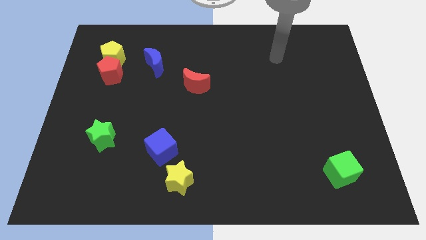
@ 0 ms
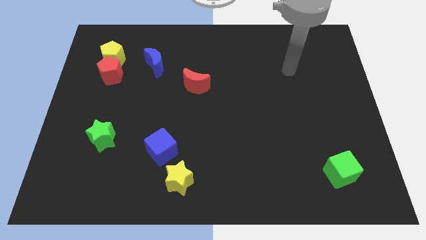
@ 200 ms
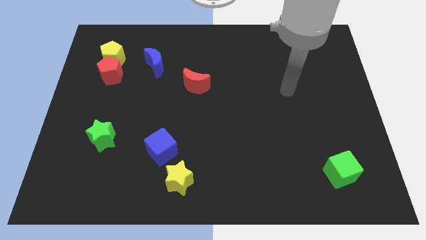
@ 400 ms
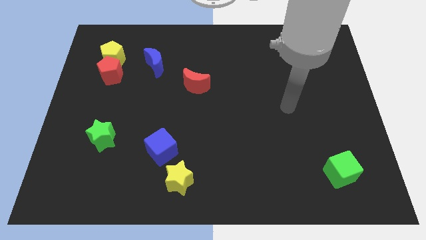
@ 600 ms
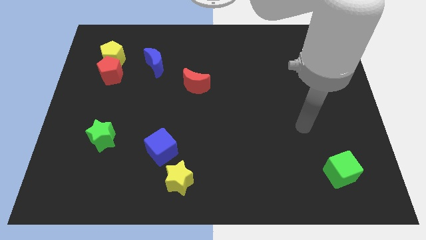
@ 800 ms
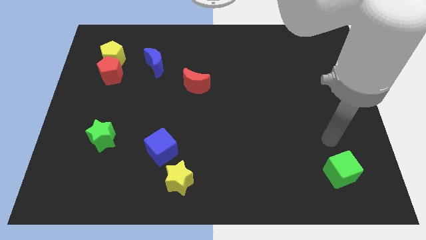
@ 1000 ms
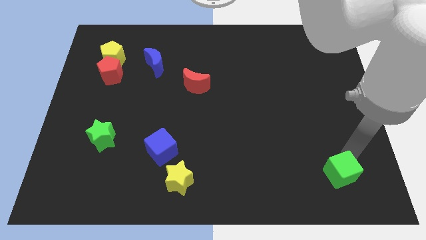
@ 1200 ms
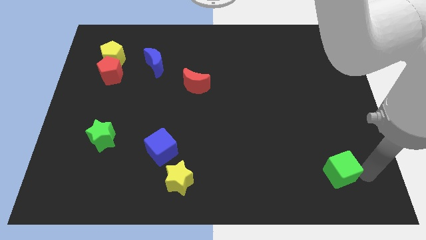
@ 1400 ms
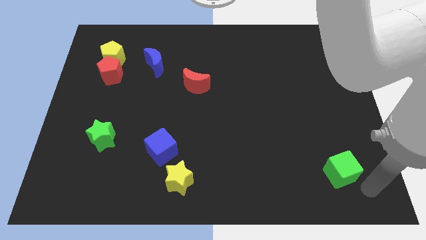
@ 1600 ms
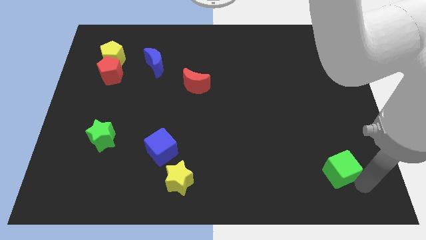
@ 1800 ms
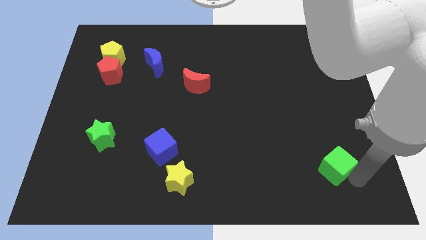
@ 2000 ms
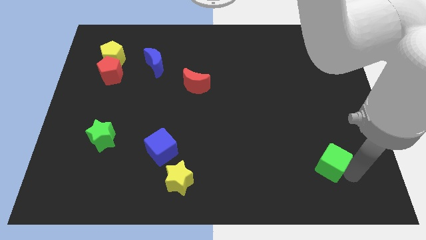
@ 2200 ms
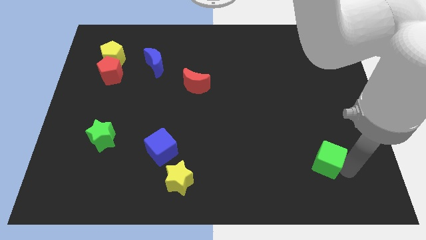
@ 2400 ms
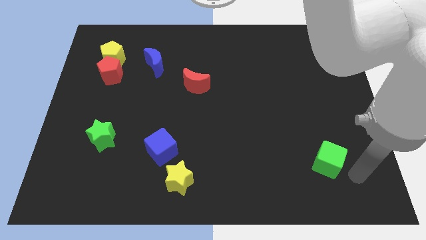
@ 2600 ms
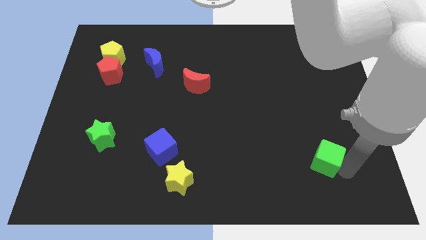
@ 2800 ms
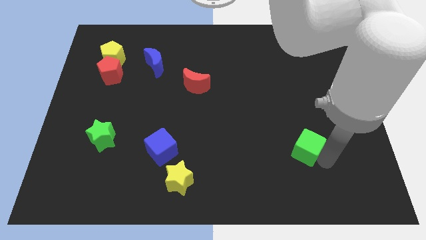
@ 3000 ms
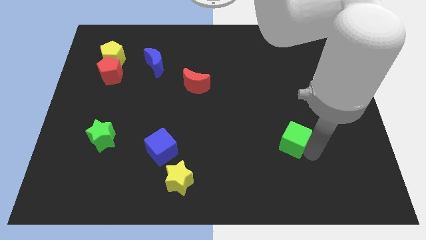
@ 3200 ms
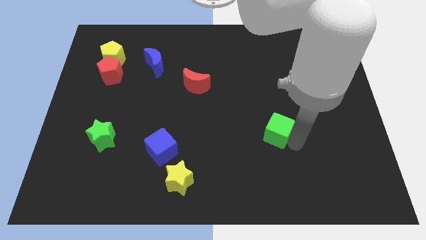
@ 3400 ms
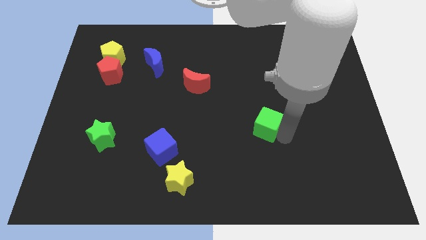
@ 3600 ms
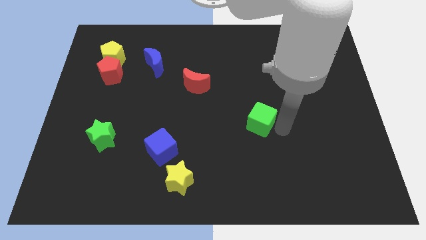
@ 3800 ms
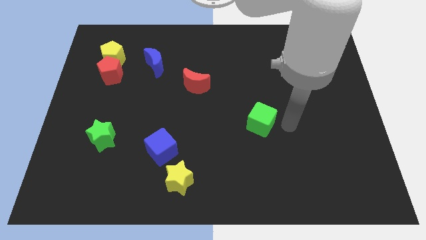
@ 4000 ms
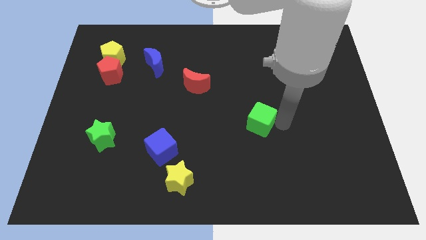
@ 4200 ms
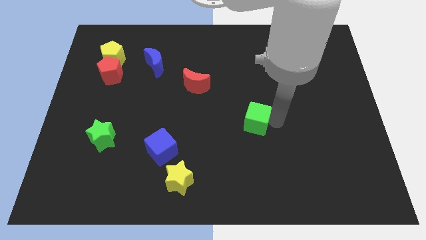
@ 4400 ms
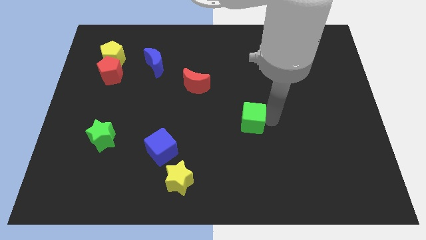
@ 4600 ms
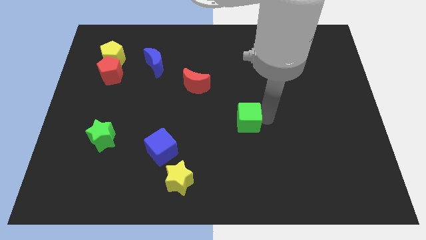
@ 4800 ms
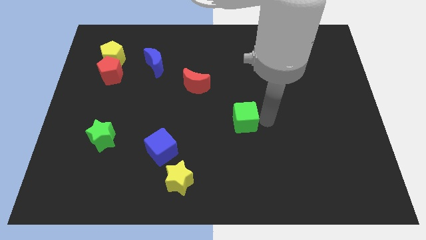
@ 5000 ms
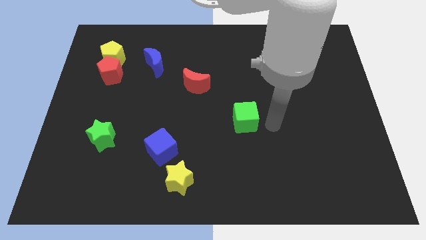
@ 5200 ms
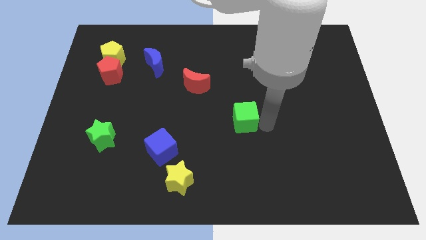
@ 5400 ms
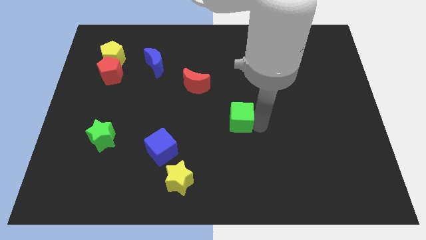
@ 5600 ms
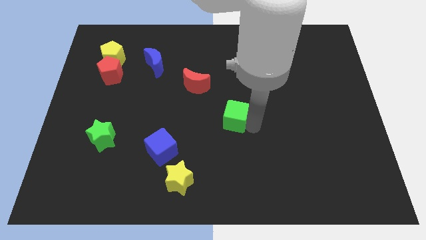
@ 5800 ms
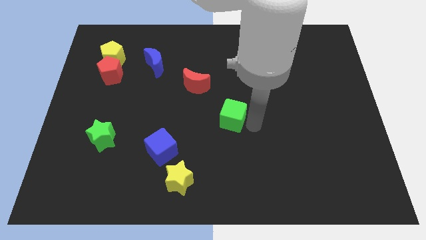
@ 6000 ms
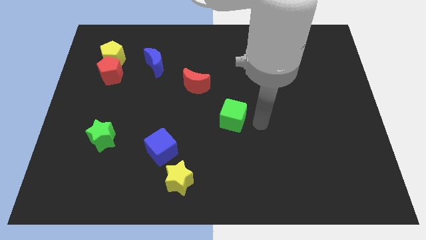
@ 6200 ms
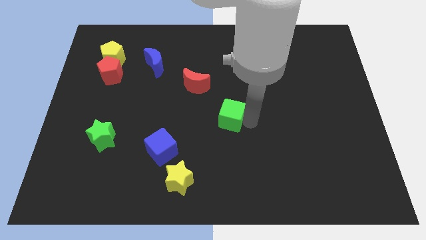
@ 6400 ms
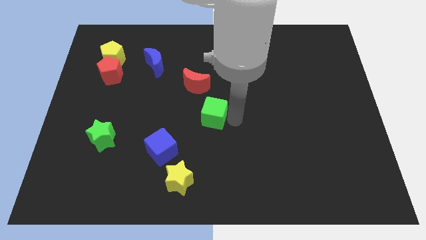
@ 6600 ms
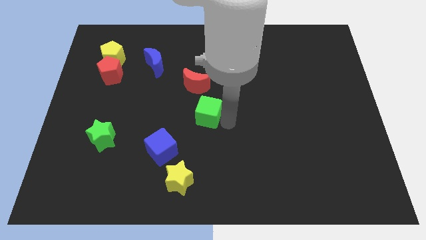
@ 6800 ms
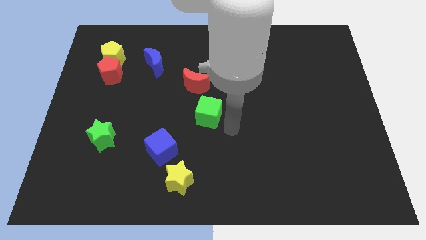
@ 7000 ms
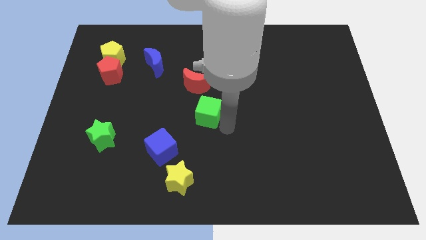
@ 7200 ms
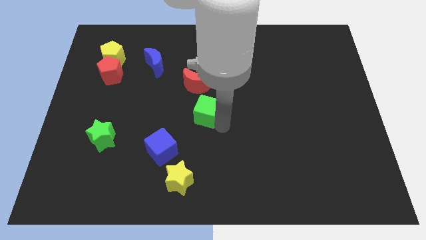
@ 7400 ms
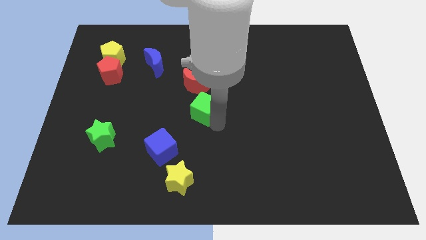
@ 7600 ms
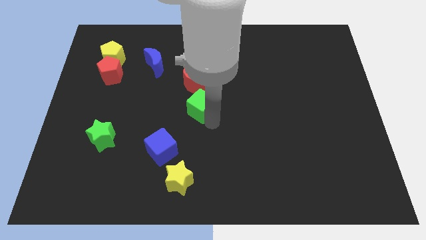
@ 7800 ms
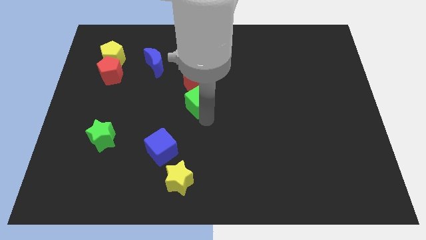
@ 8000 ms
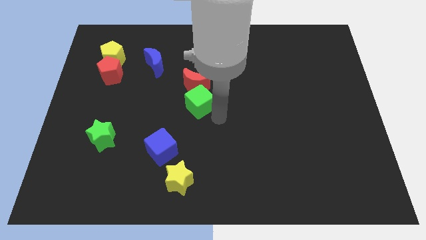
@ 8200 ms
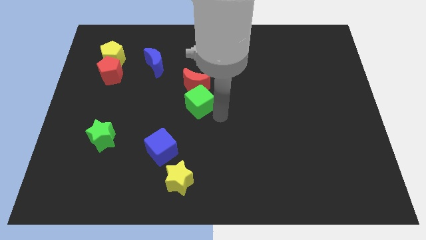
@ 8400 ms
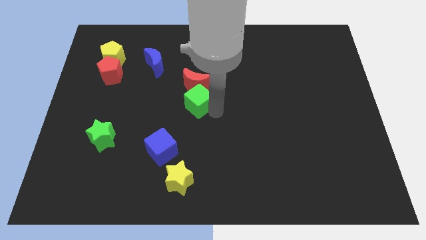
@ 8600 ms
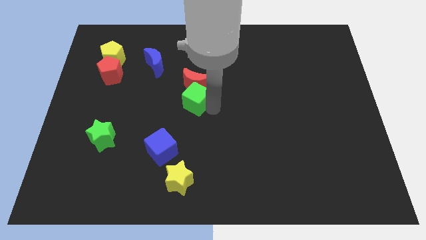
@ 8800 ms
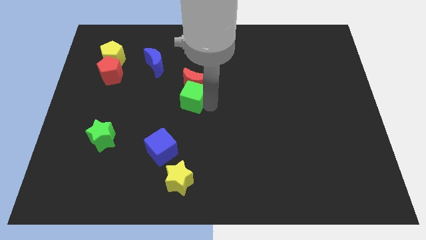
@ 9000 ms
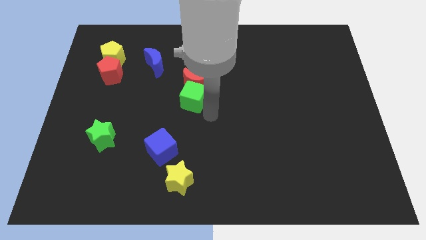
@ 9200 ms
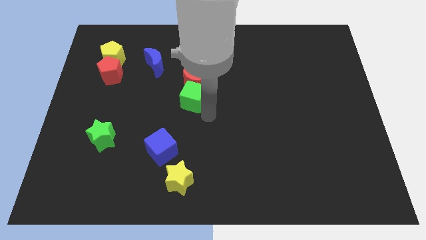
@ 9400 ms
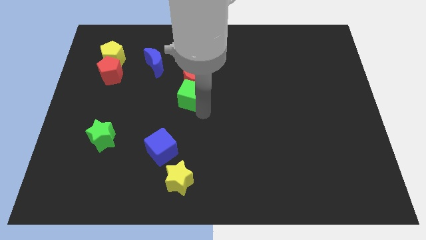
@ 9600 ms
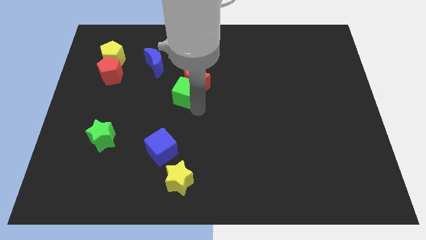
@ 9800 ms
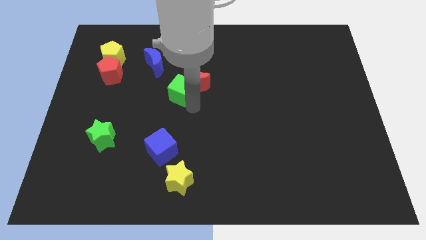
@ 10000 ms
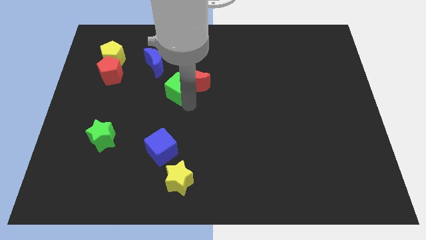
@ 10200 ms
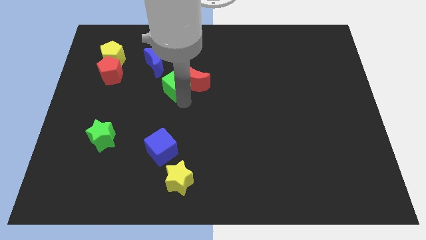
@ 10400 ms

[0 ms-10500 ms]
move the green cube diagonally up and to the left of the red moon

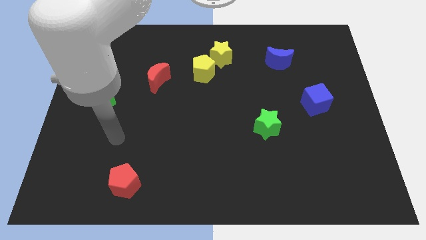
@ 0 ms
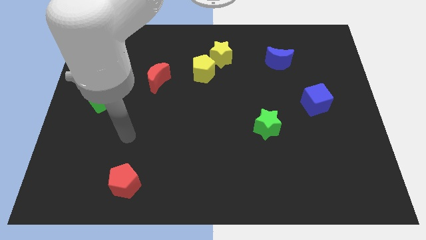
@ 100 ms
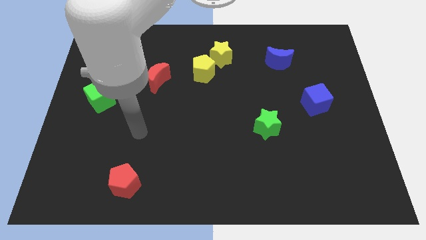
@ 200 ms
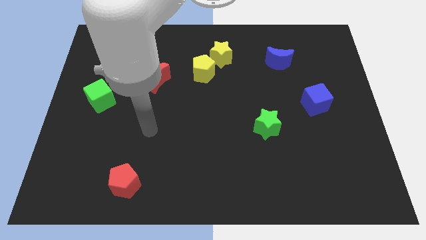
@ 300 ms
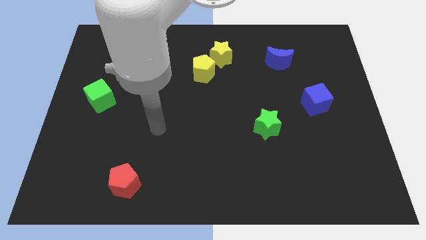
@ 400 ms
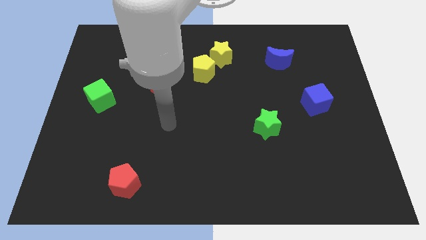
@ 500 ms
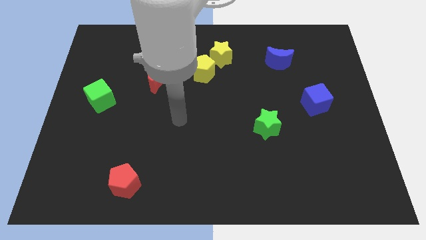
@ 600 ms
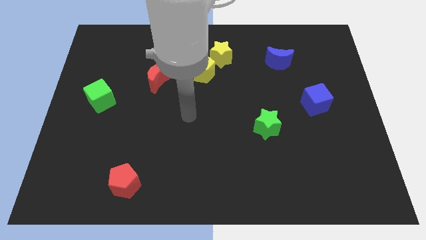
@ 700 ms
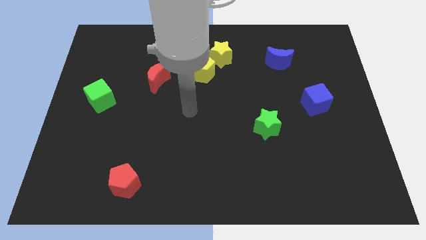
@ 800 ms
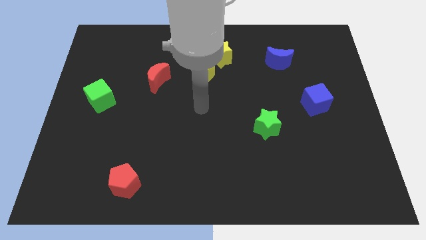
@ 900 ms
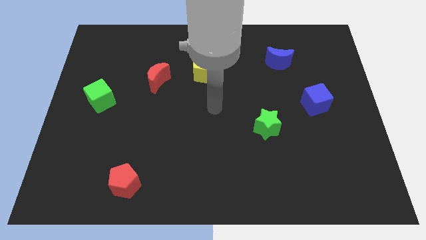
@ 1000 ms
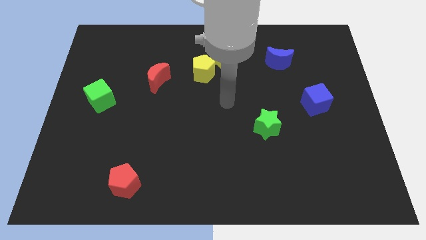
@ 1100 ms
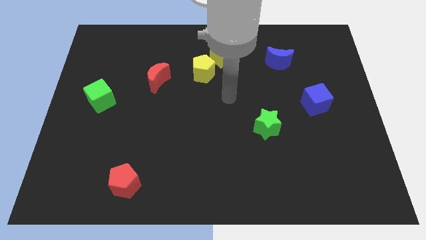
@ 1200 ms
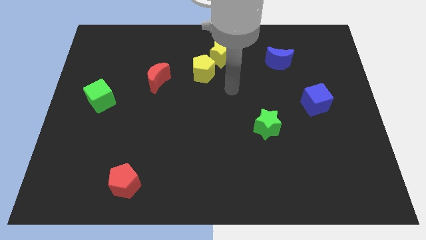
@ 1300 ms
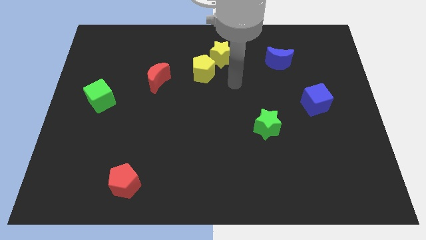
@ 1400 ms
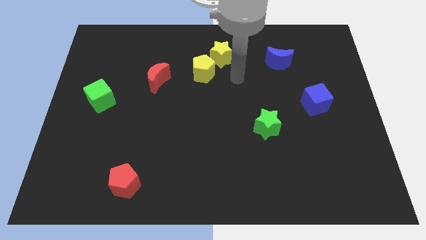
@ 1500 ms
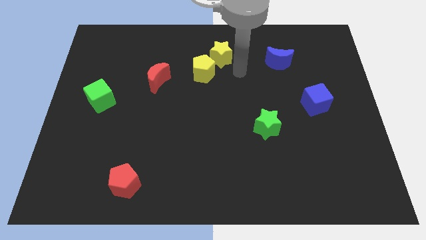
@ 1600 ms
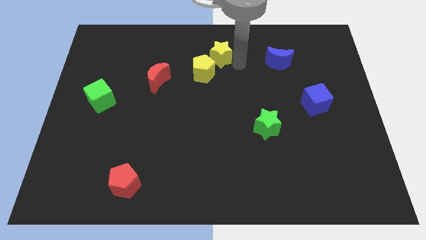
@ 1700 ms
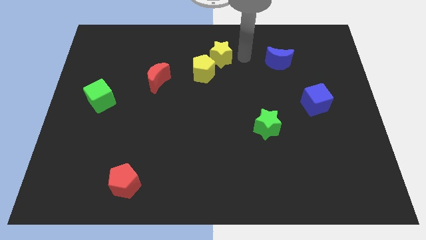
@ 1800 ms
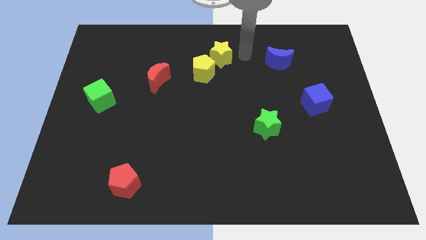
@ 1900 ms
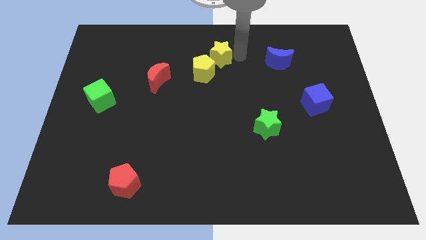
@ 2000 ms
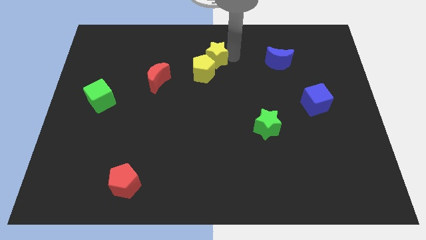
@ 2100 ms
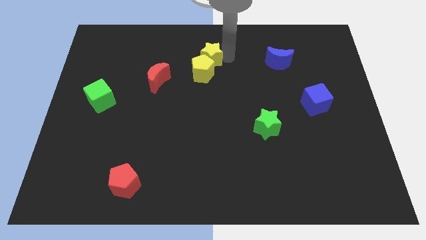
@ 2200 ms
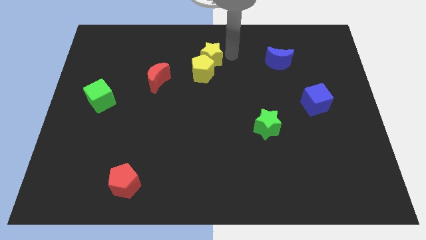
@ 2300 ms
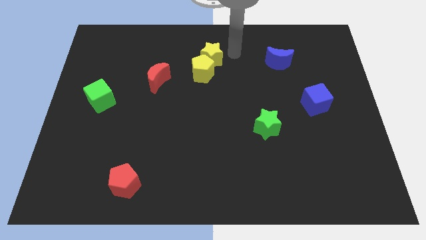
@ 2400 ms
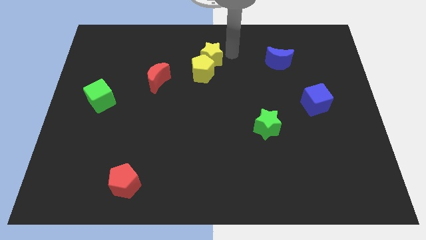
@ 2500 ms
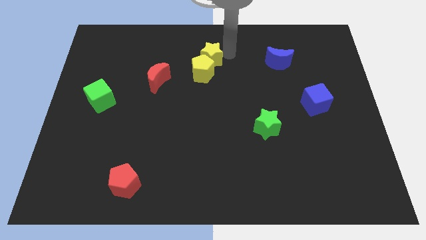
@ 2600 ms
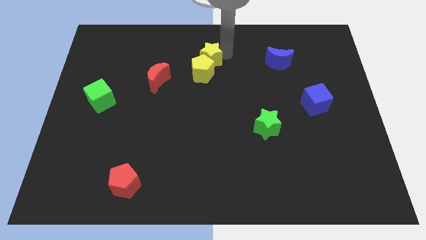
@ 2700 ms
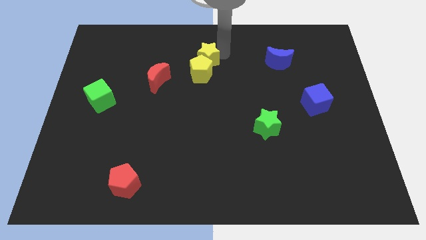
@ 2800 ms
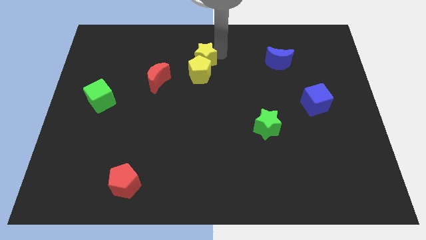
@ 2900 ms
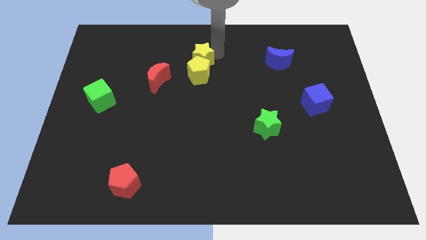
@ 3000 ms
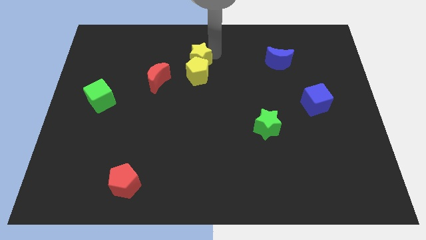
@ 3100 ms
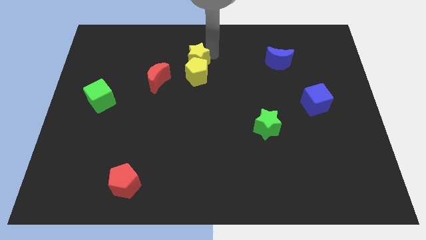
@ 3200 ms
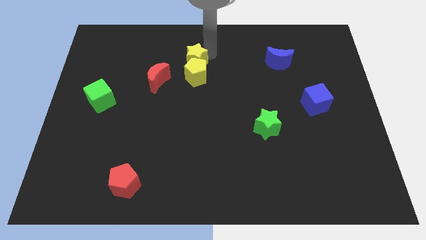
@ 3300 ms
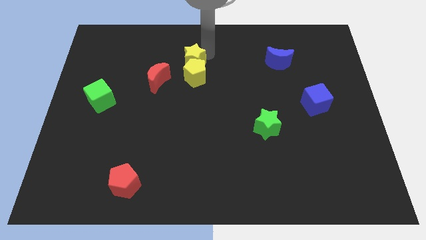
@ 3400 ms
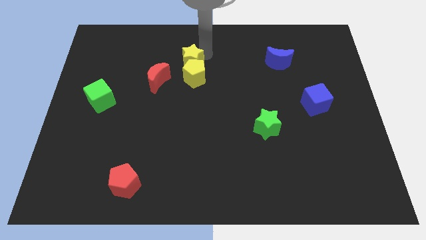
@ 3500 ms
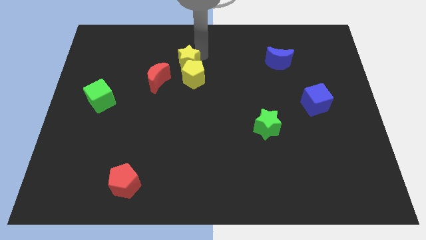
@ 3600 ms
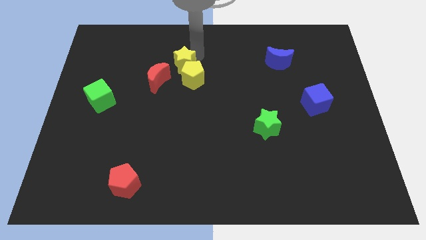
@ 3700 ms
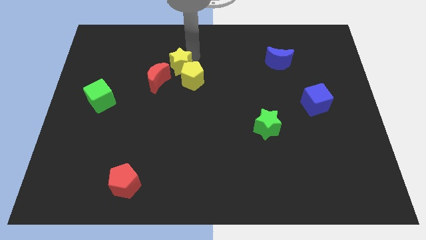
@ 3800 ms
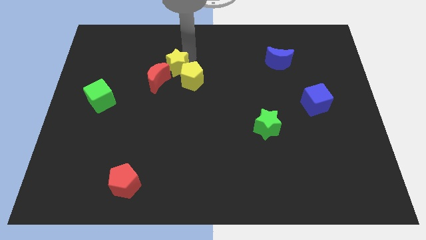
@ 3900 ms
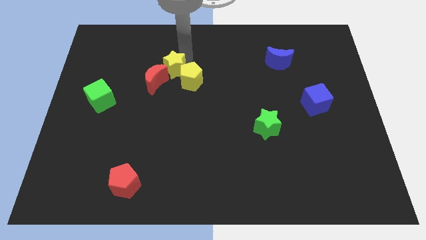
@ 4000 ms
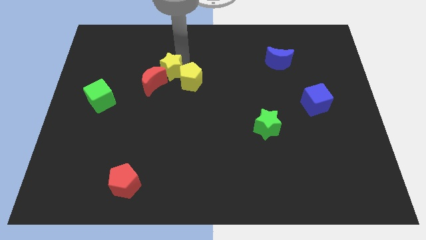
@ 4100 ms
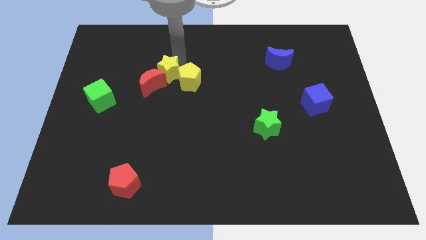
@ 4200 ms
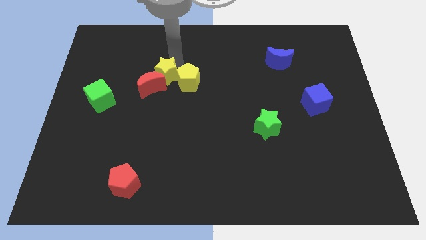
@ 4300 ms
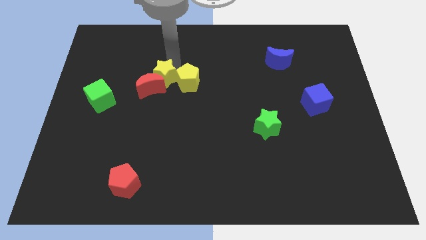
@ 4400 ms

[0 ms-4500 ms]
push the yellow star to the bottom left side of the yellow pentagon
